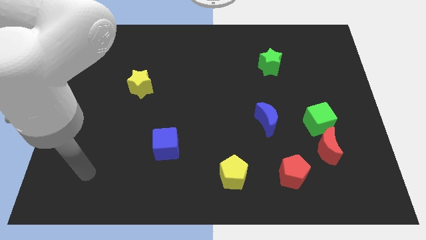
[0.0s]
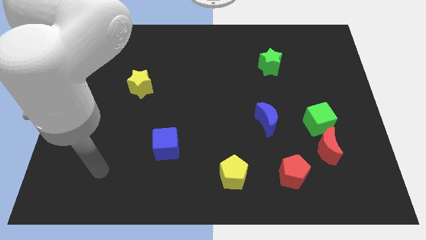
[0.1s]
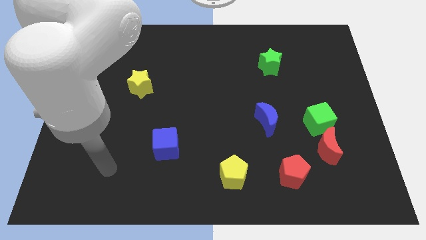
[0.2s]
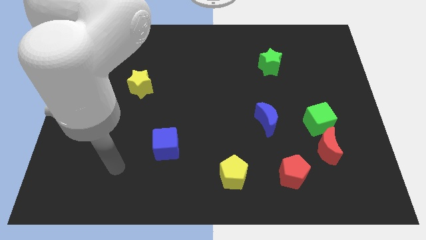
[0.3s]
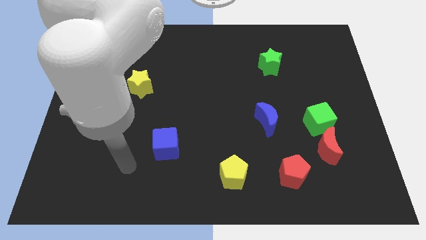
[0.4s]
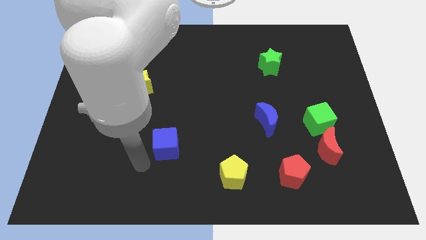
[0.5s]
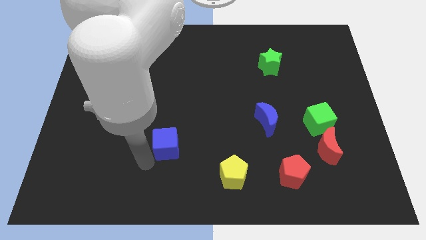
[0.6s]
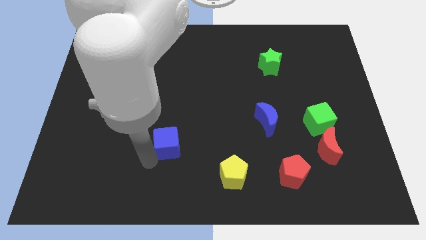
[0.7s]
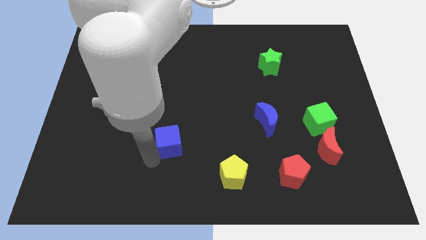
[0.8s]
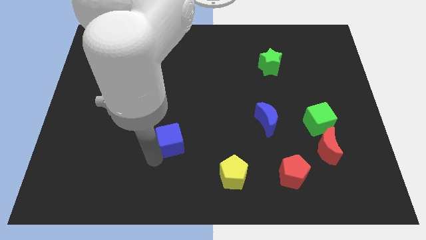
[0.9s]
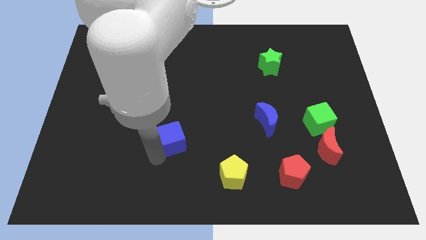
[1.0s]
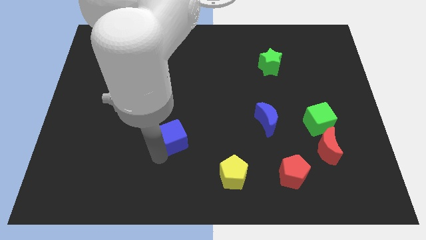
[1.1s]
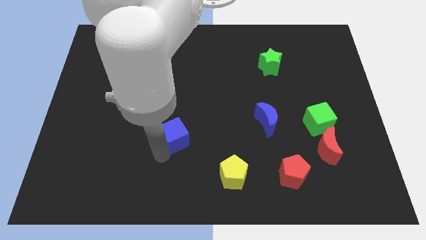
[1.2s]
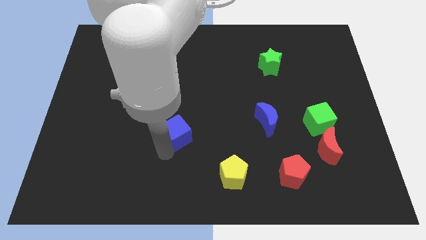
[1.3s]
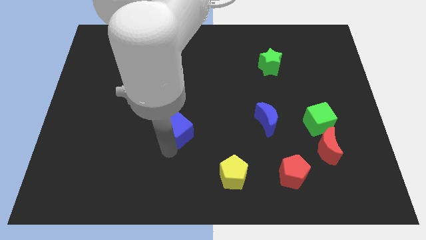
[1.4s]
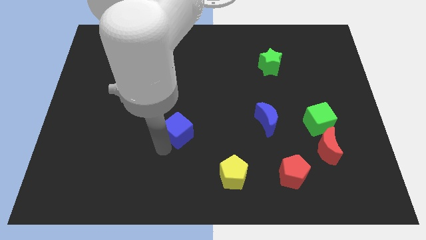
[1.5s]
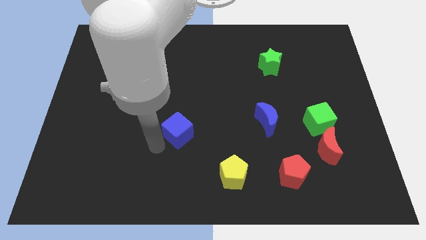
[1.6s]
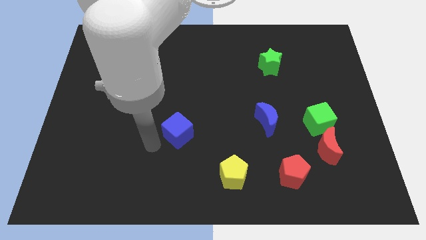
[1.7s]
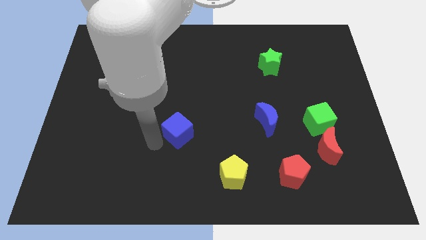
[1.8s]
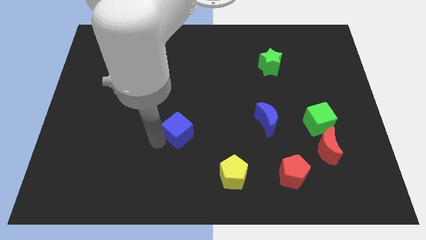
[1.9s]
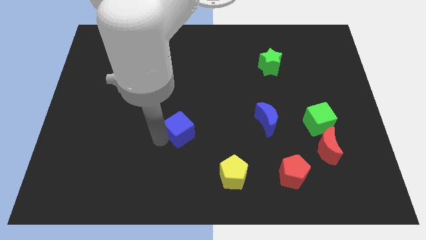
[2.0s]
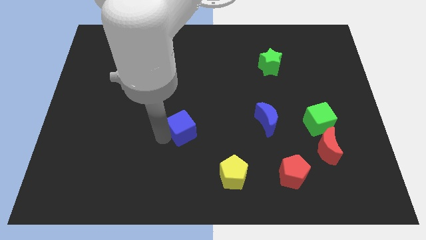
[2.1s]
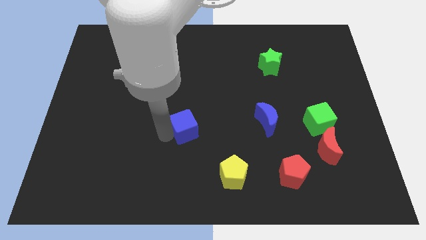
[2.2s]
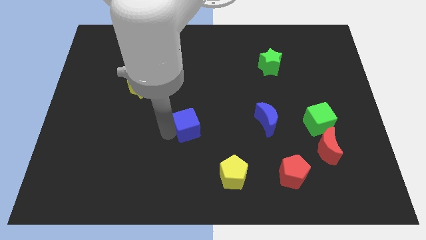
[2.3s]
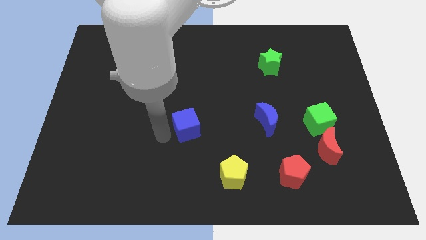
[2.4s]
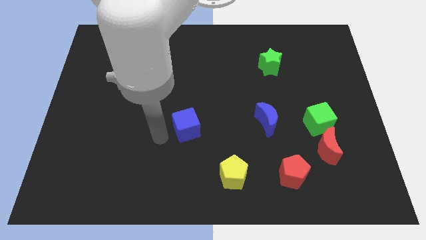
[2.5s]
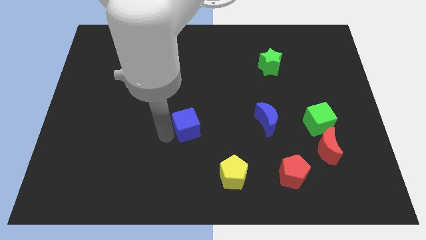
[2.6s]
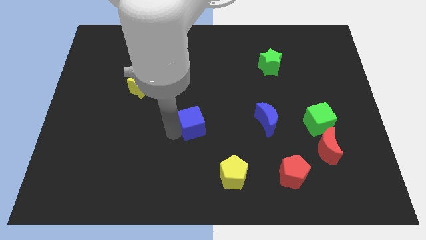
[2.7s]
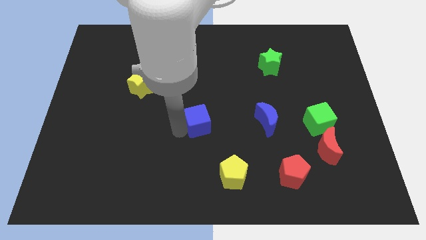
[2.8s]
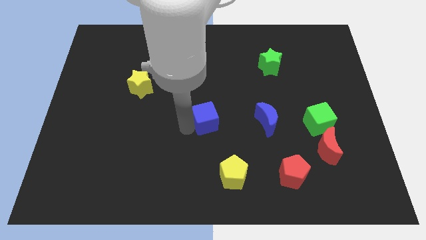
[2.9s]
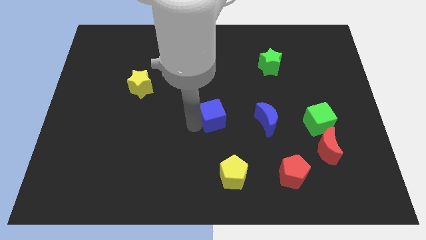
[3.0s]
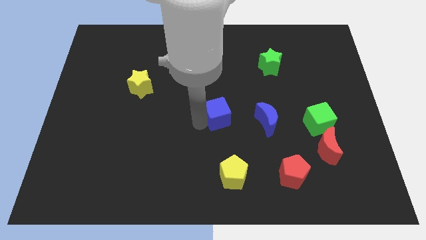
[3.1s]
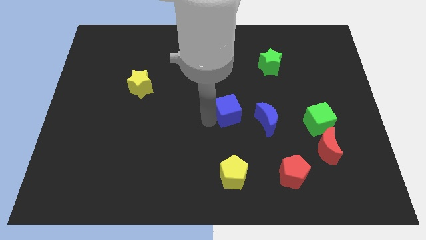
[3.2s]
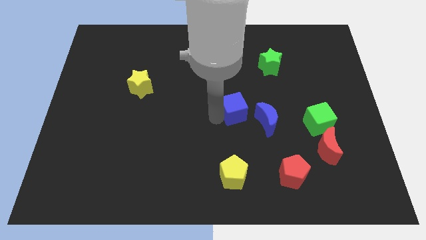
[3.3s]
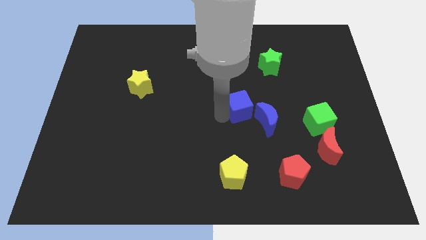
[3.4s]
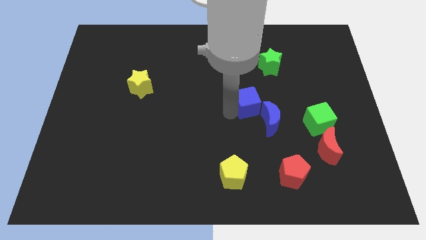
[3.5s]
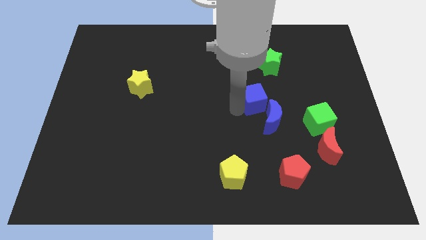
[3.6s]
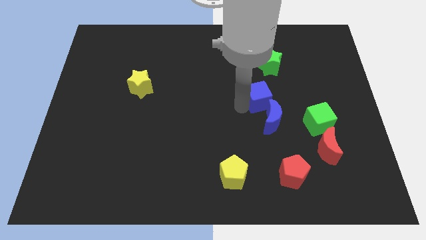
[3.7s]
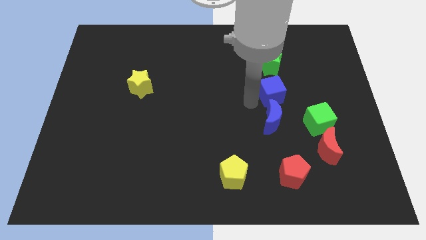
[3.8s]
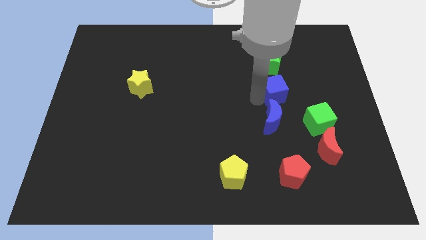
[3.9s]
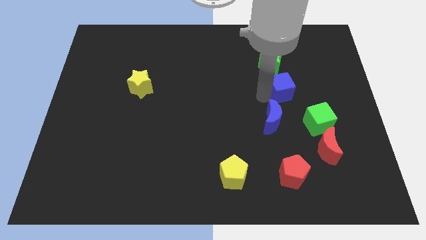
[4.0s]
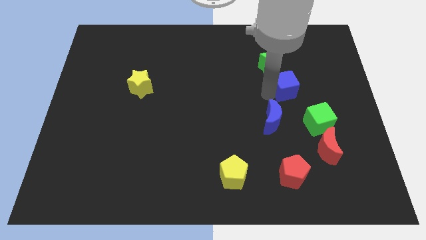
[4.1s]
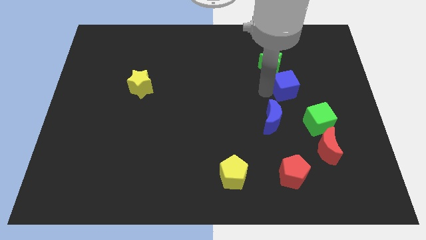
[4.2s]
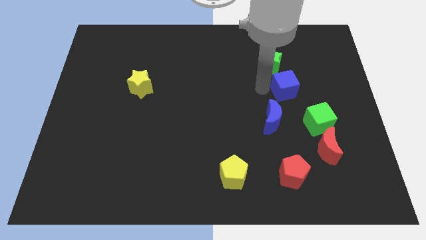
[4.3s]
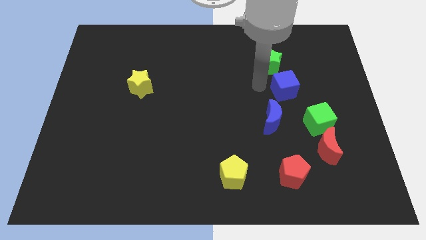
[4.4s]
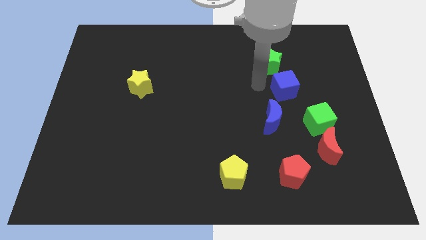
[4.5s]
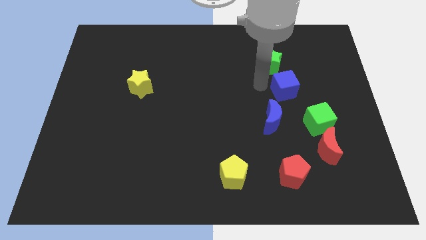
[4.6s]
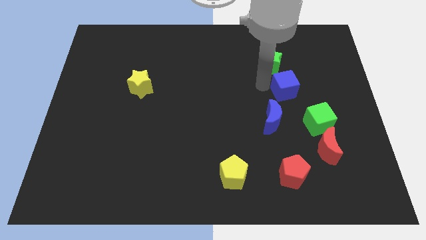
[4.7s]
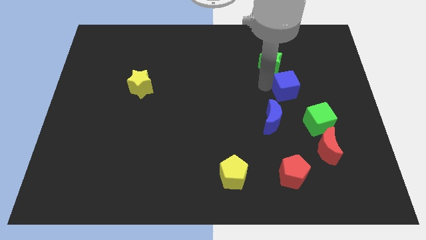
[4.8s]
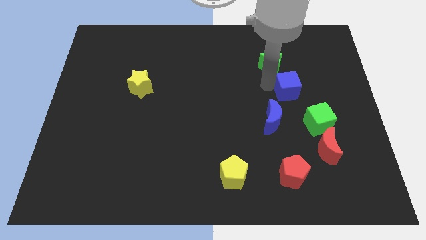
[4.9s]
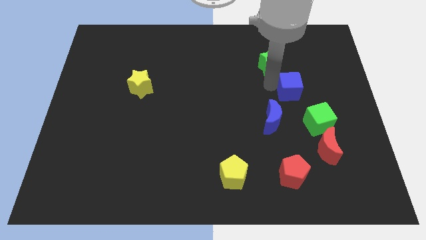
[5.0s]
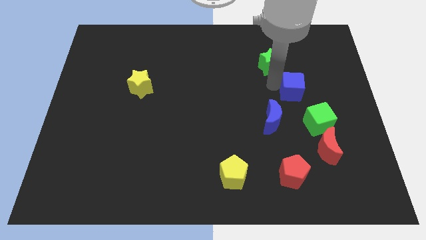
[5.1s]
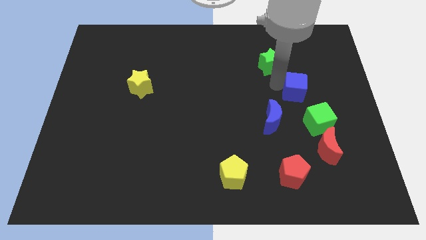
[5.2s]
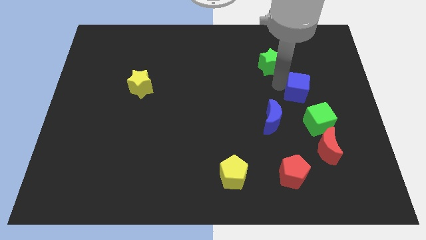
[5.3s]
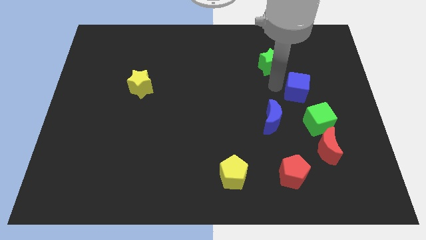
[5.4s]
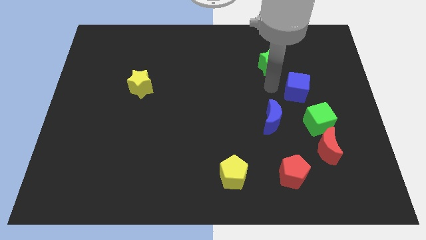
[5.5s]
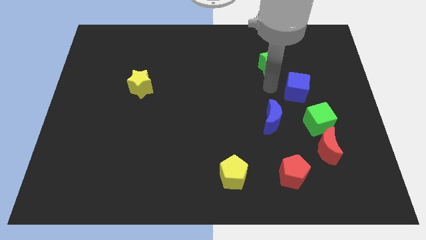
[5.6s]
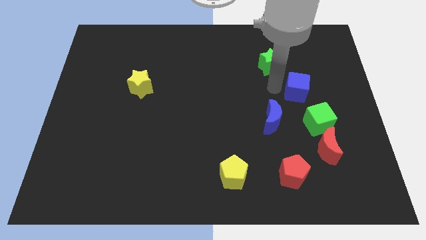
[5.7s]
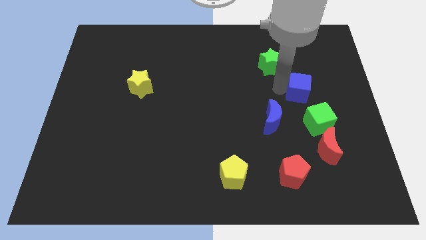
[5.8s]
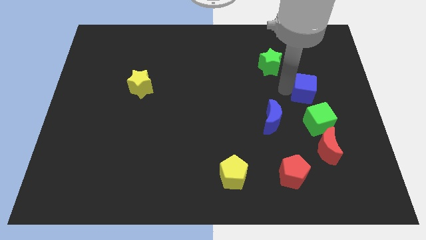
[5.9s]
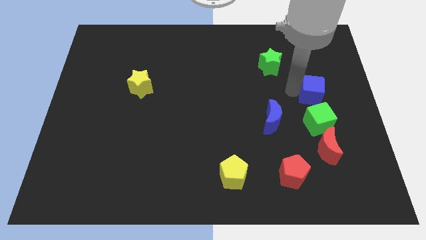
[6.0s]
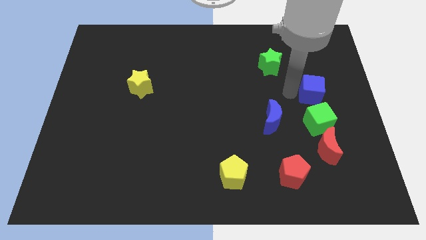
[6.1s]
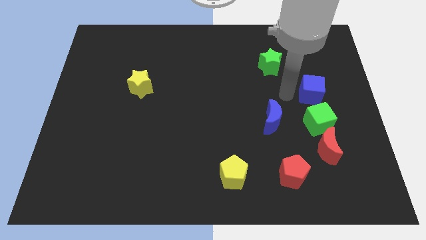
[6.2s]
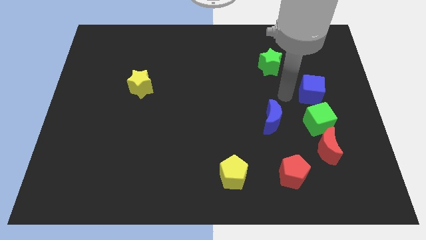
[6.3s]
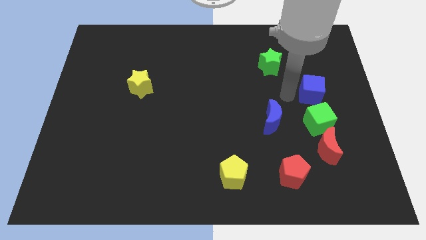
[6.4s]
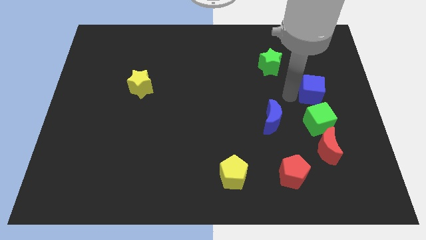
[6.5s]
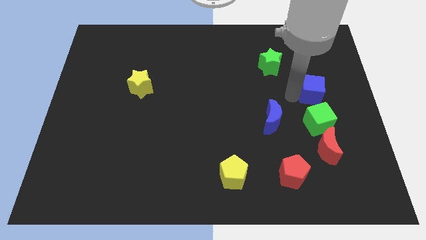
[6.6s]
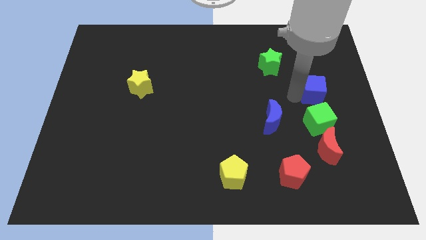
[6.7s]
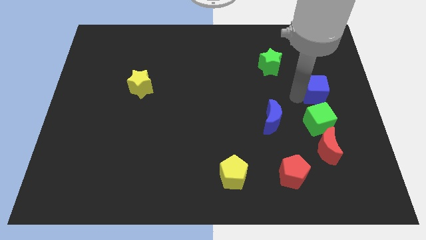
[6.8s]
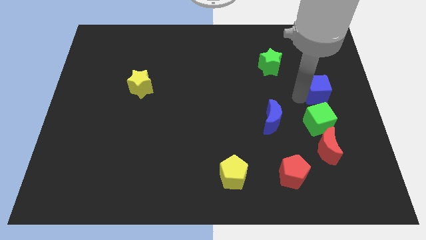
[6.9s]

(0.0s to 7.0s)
slide the blue cube to the right side
